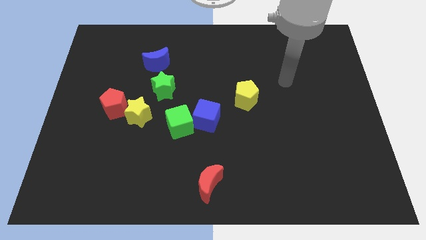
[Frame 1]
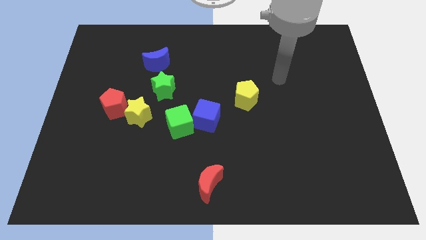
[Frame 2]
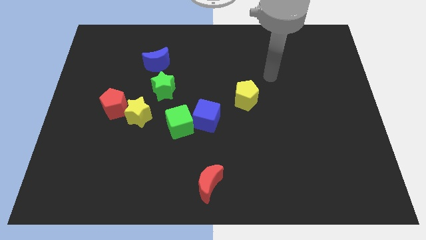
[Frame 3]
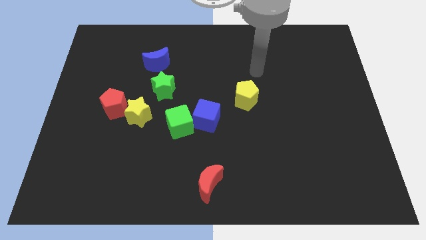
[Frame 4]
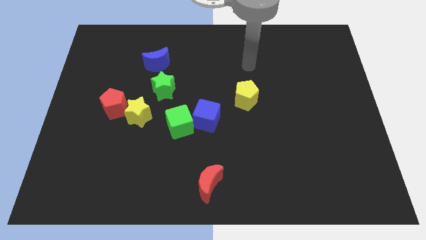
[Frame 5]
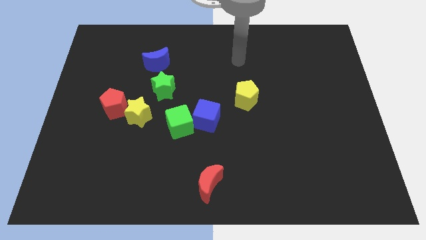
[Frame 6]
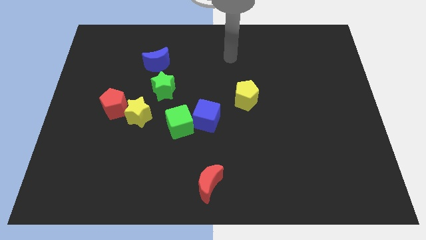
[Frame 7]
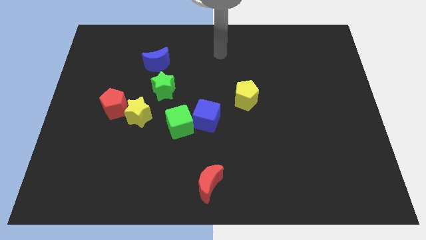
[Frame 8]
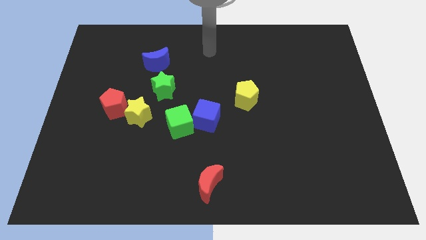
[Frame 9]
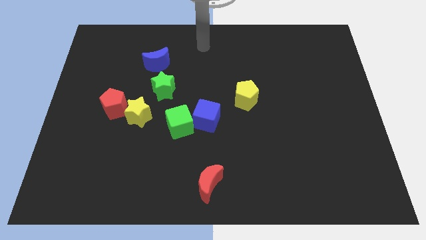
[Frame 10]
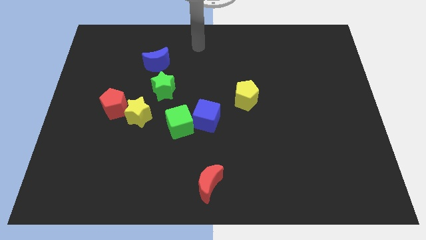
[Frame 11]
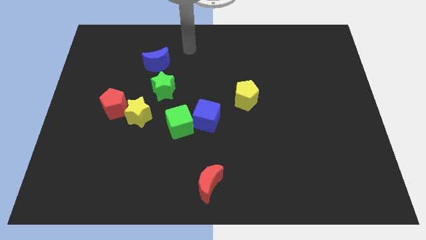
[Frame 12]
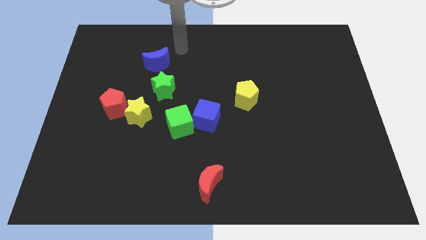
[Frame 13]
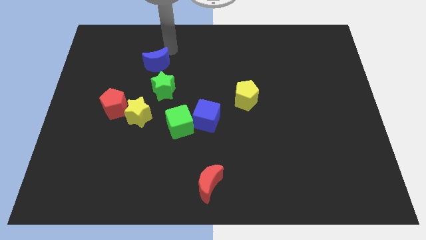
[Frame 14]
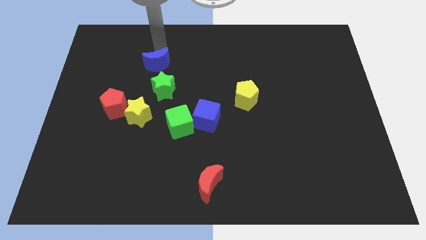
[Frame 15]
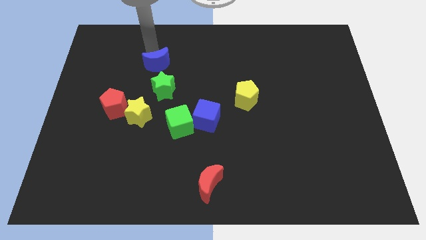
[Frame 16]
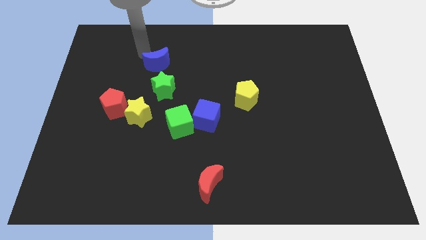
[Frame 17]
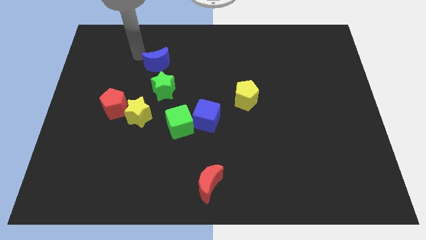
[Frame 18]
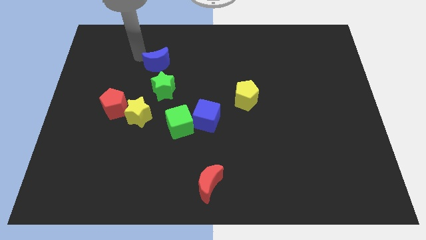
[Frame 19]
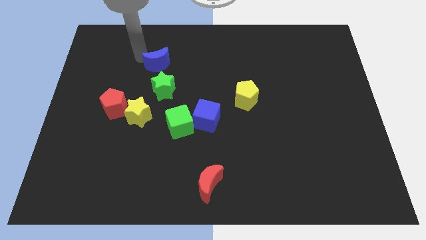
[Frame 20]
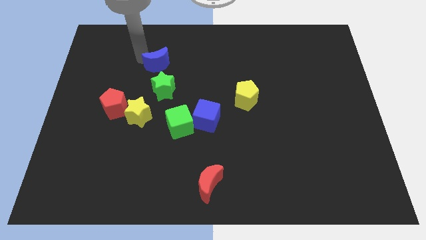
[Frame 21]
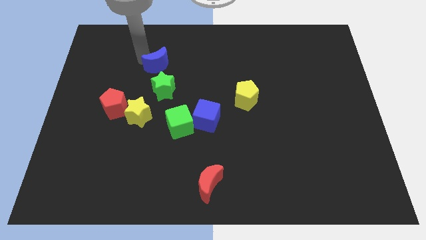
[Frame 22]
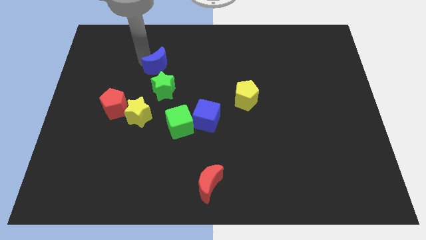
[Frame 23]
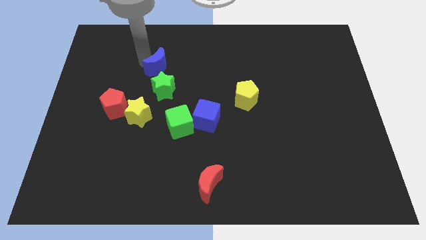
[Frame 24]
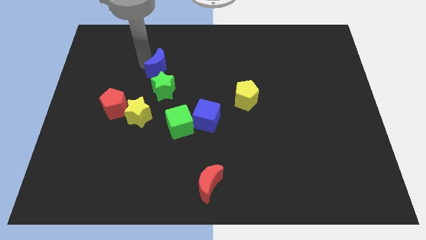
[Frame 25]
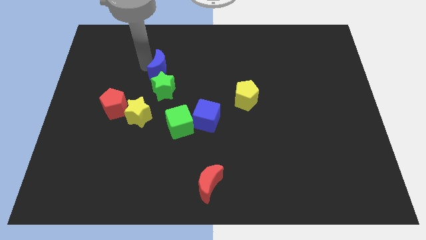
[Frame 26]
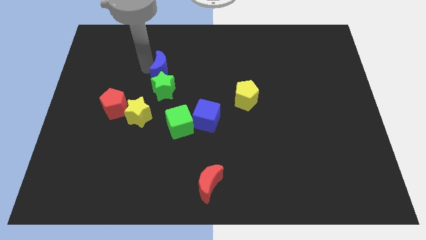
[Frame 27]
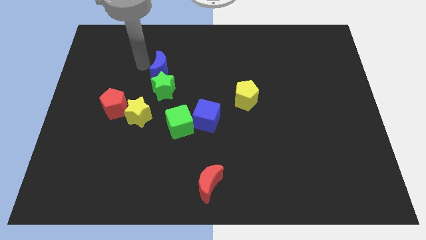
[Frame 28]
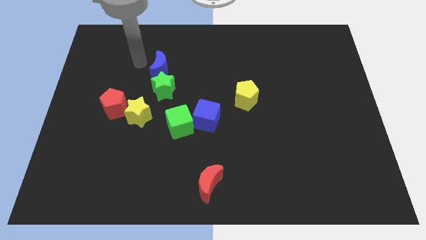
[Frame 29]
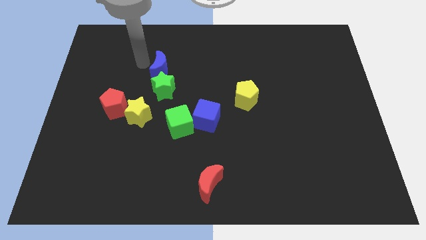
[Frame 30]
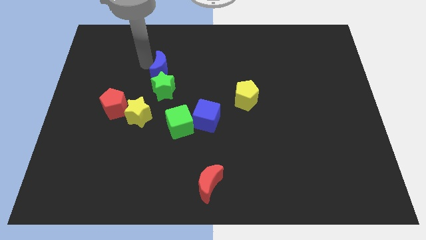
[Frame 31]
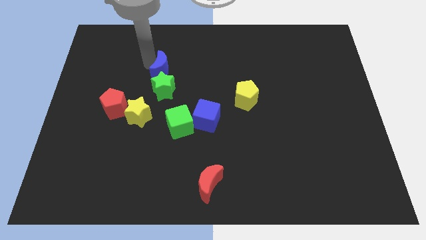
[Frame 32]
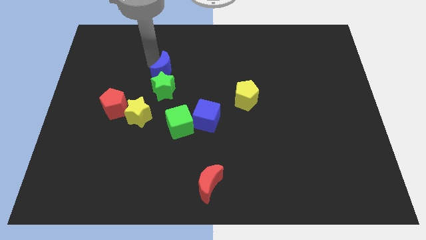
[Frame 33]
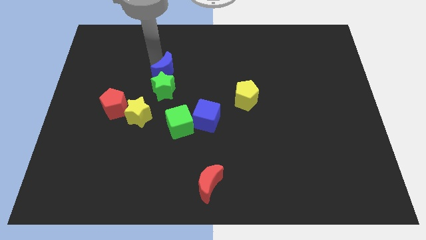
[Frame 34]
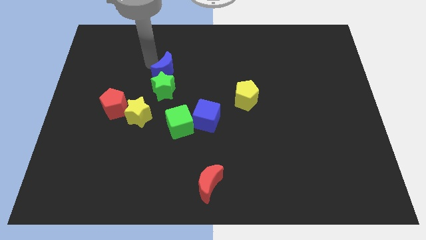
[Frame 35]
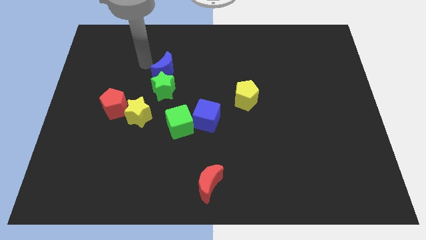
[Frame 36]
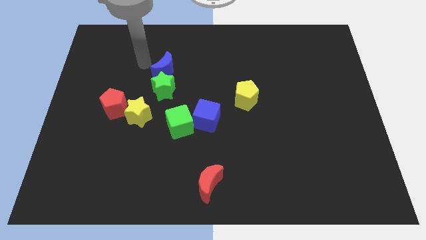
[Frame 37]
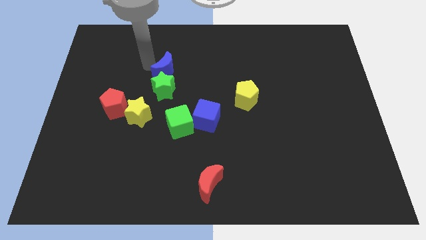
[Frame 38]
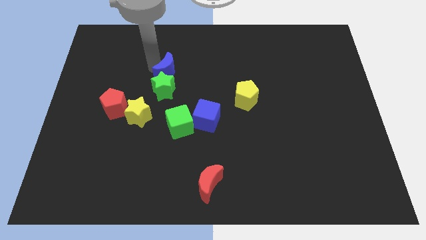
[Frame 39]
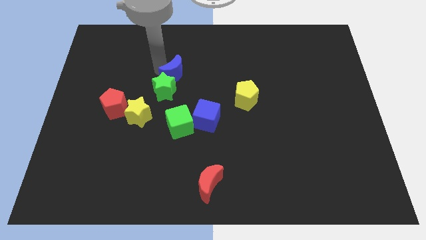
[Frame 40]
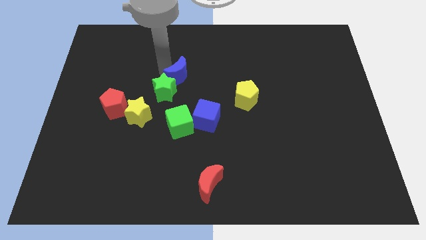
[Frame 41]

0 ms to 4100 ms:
move the blue moon down and then right a bit

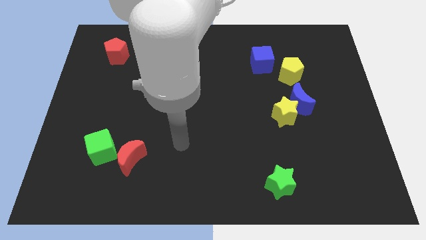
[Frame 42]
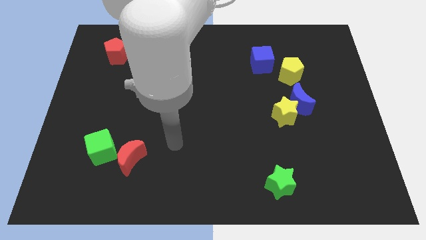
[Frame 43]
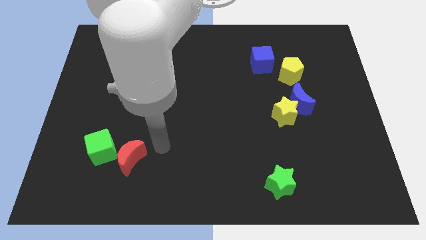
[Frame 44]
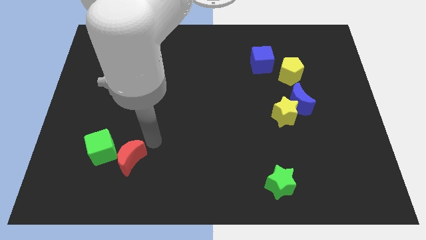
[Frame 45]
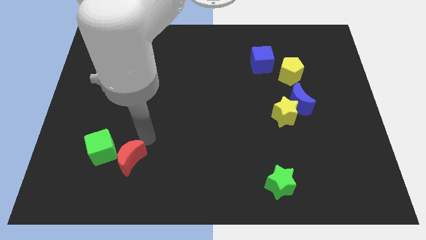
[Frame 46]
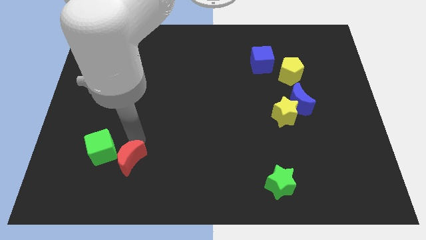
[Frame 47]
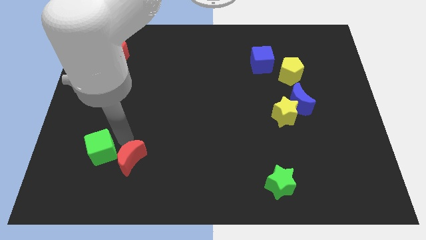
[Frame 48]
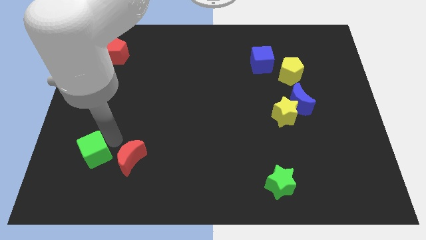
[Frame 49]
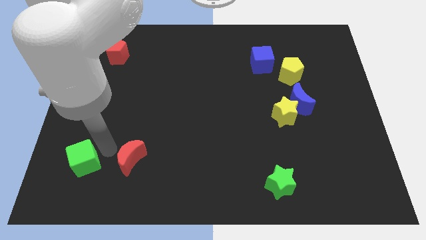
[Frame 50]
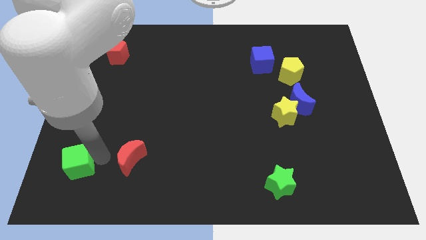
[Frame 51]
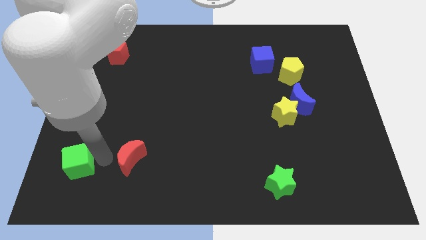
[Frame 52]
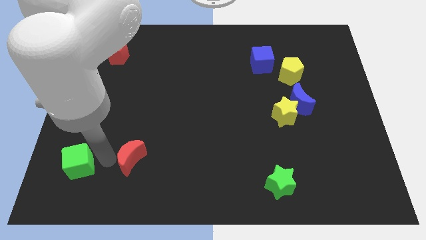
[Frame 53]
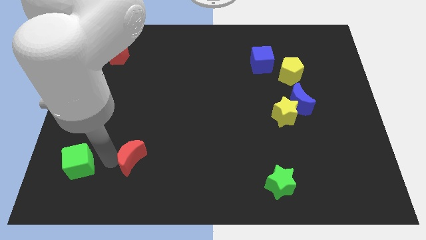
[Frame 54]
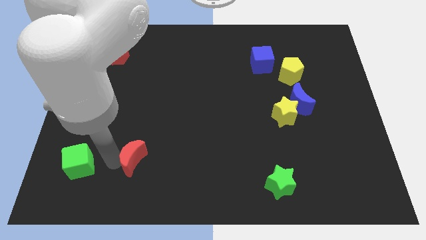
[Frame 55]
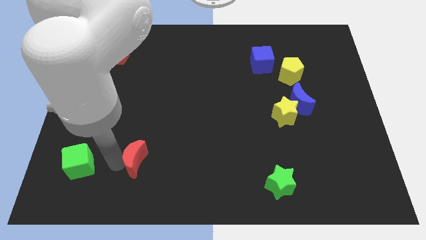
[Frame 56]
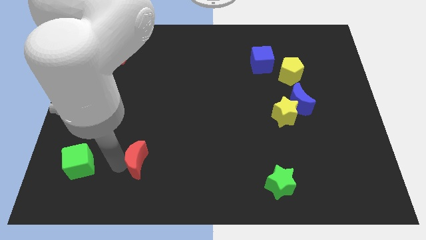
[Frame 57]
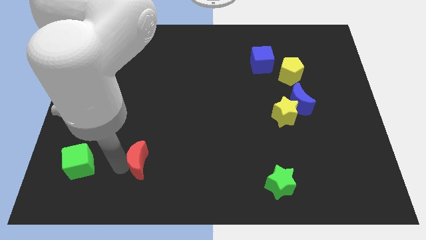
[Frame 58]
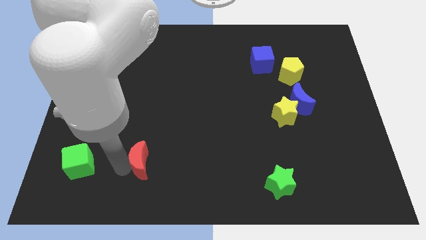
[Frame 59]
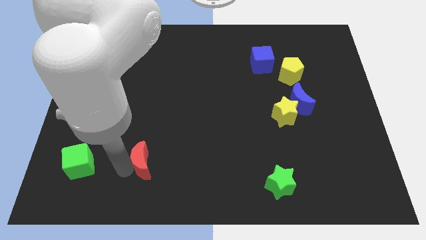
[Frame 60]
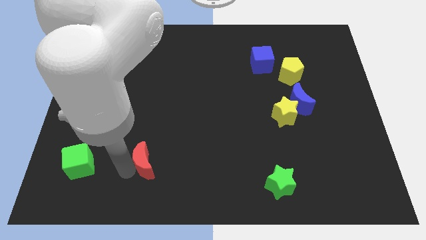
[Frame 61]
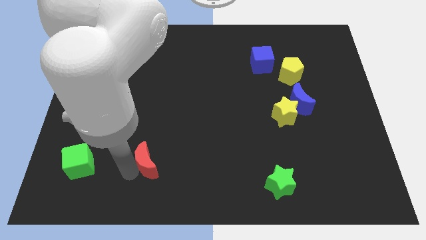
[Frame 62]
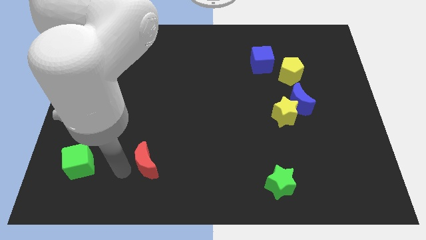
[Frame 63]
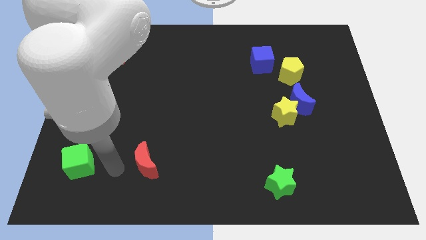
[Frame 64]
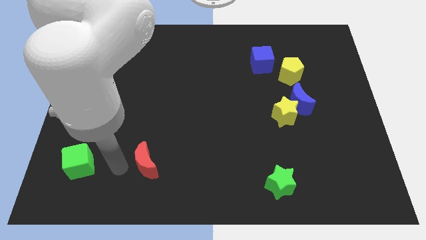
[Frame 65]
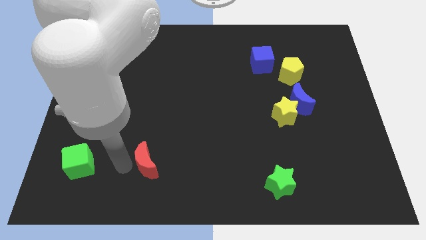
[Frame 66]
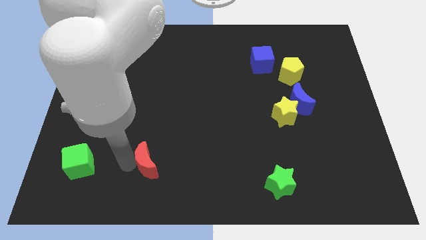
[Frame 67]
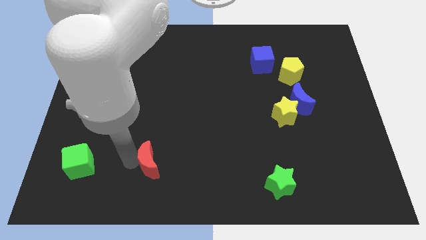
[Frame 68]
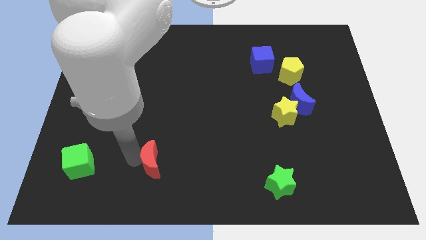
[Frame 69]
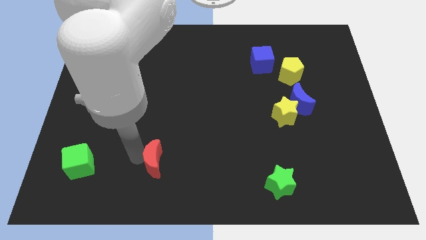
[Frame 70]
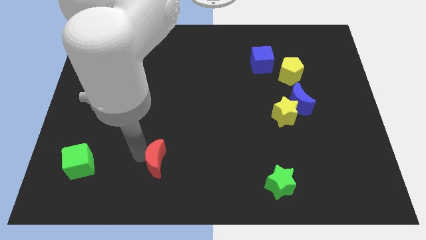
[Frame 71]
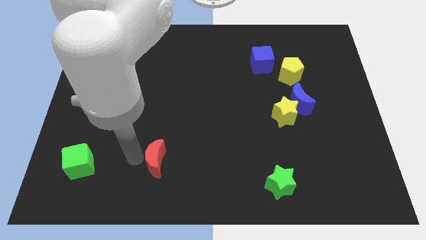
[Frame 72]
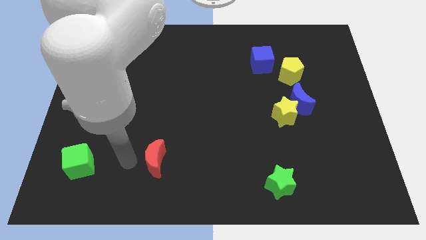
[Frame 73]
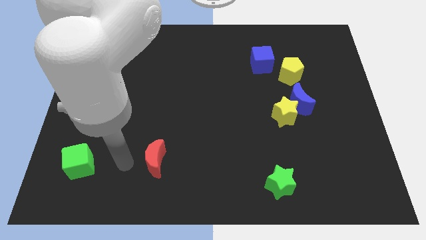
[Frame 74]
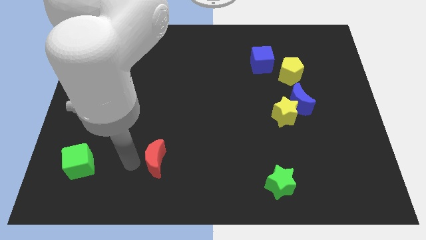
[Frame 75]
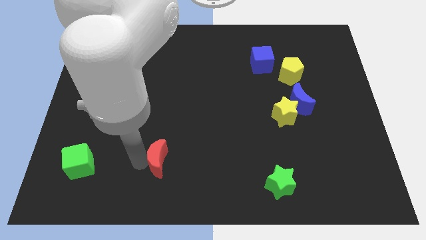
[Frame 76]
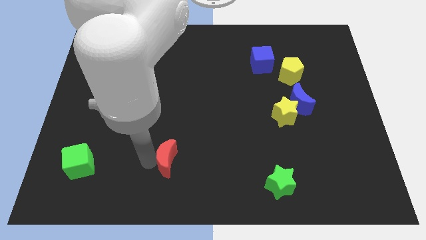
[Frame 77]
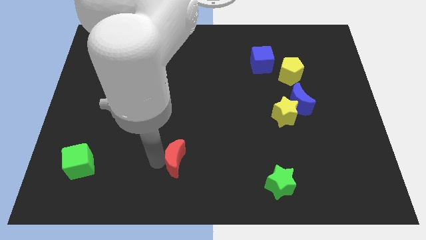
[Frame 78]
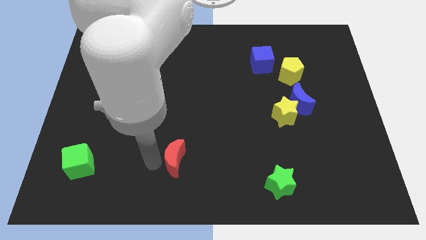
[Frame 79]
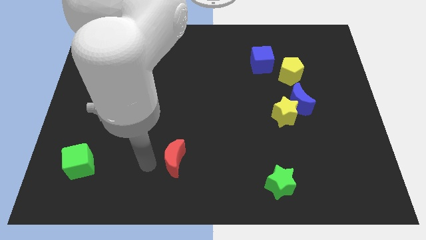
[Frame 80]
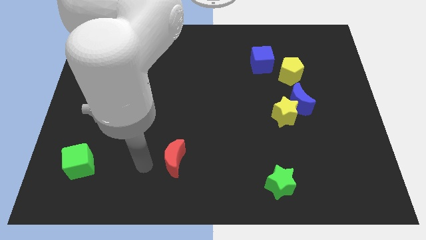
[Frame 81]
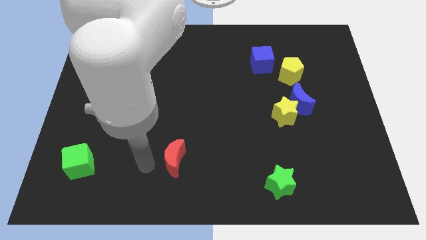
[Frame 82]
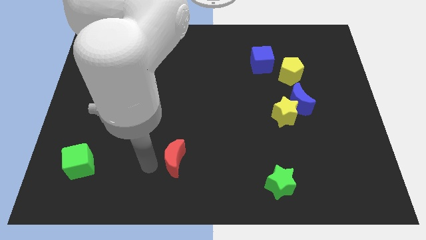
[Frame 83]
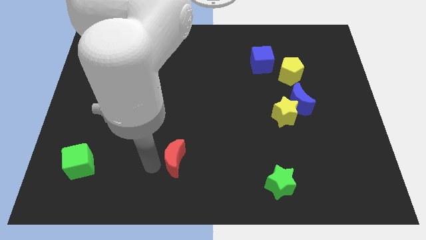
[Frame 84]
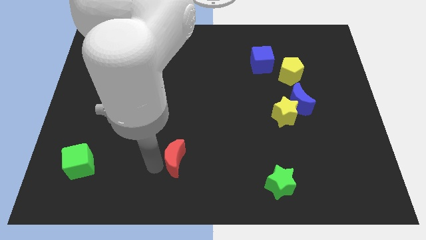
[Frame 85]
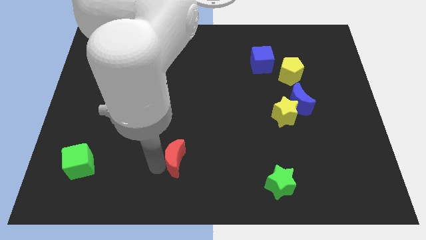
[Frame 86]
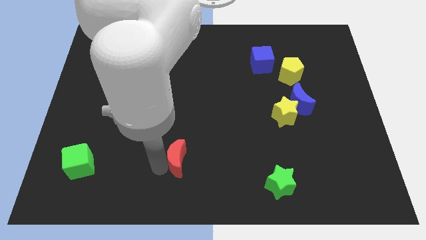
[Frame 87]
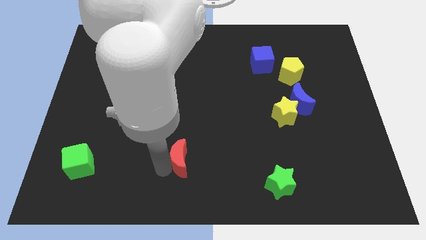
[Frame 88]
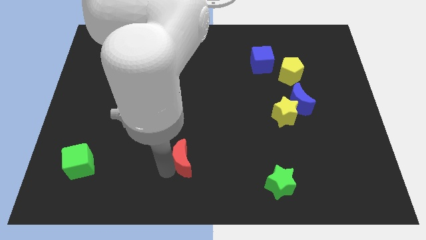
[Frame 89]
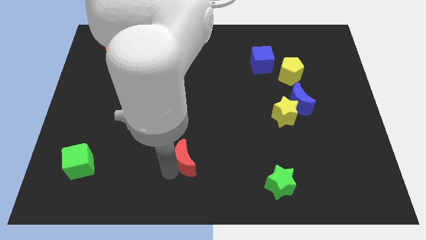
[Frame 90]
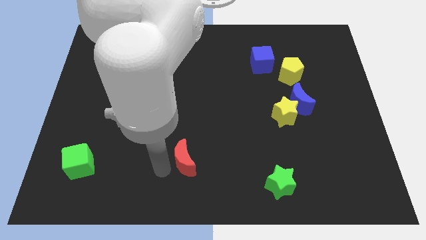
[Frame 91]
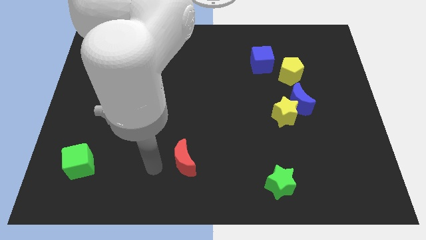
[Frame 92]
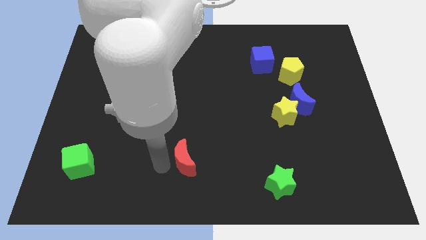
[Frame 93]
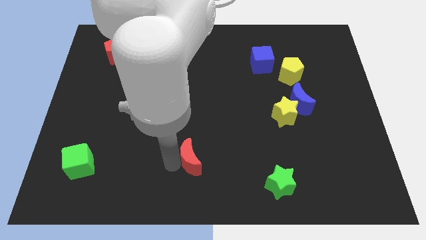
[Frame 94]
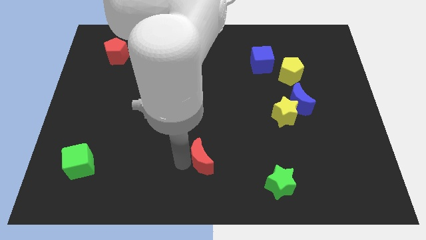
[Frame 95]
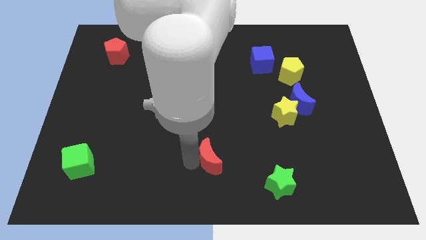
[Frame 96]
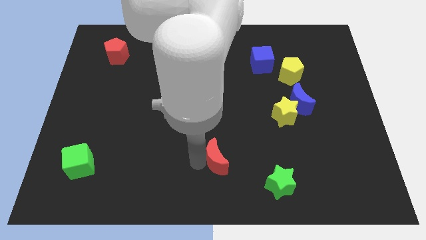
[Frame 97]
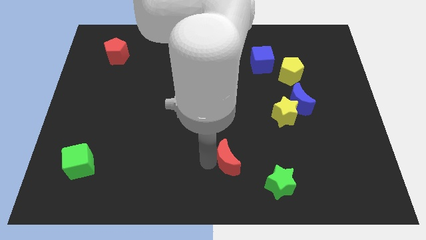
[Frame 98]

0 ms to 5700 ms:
slide the red moon right
